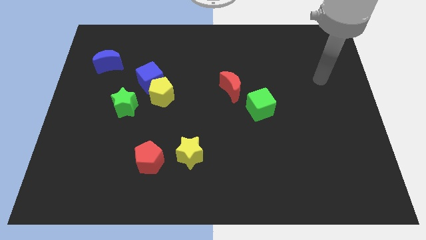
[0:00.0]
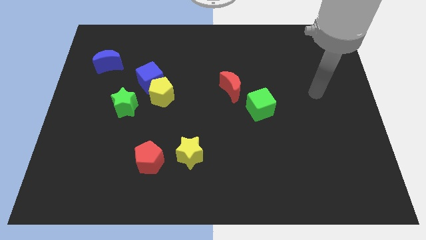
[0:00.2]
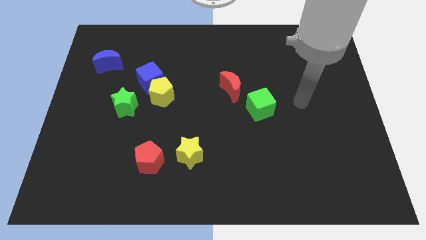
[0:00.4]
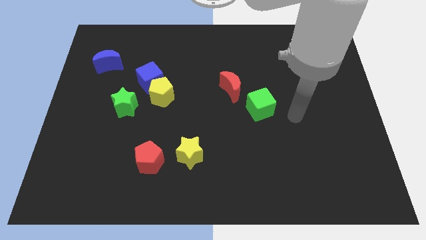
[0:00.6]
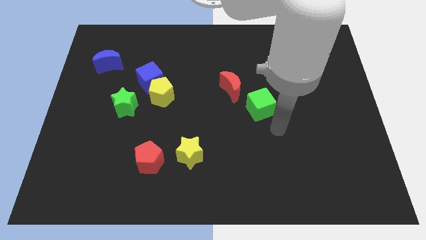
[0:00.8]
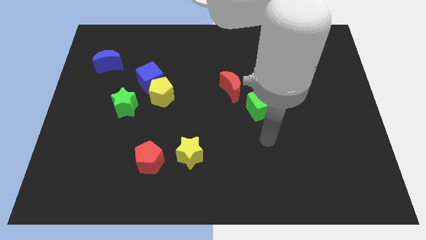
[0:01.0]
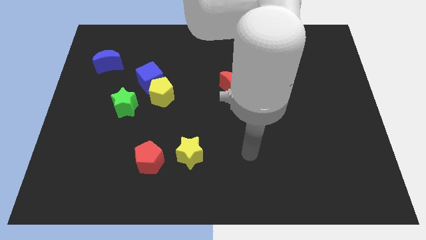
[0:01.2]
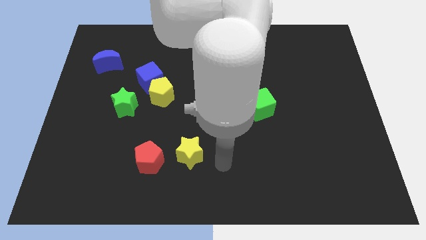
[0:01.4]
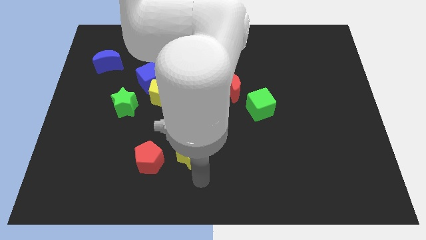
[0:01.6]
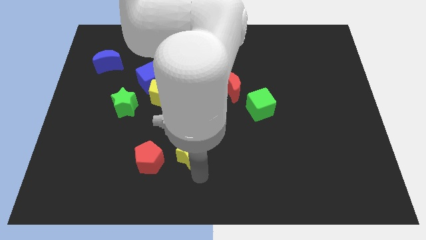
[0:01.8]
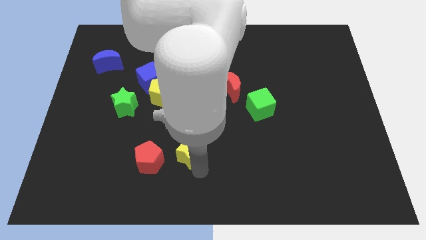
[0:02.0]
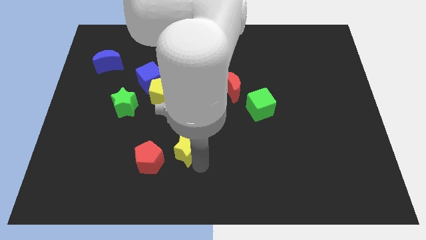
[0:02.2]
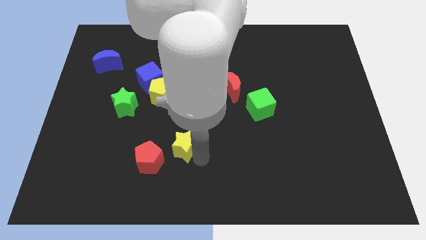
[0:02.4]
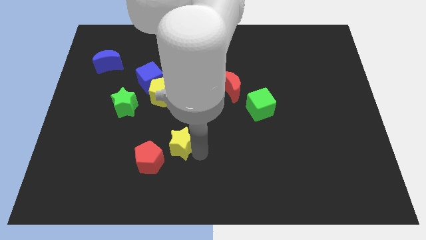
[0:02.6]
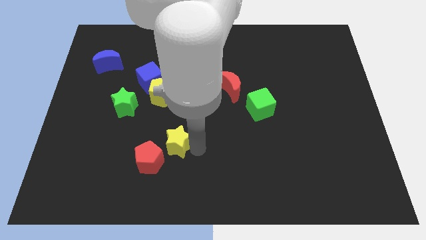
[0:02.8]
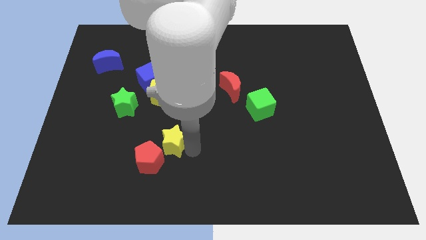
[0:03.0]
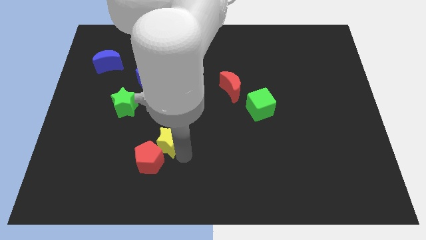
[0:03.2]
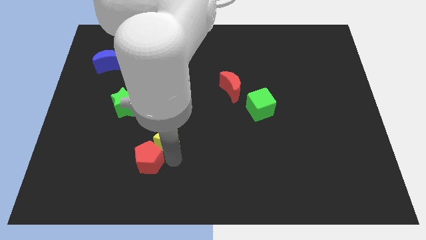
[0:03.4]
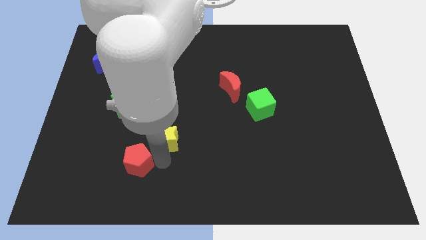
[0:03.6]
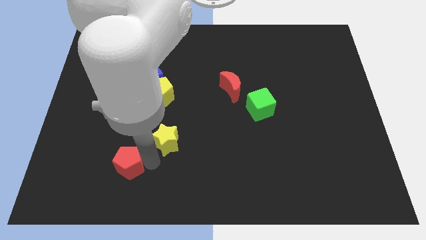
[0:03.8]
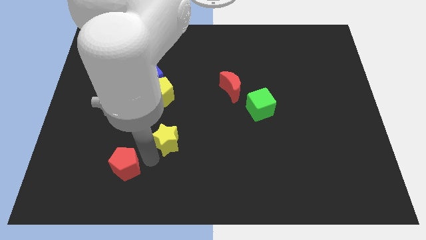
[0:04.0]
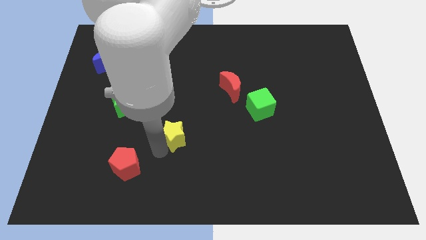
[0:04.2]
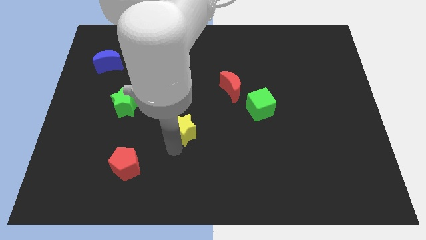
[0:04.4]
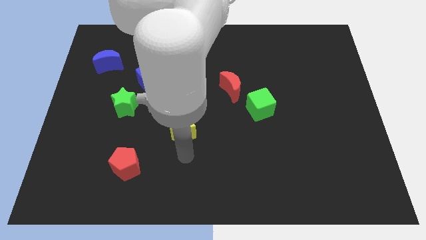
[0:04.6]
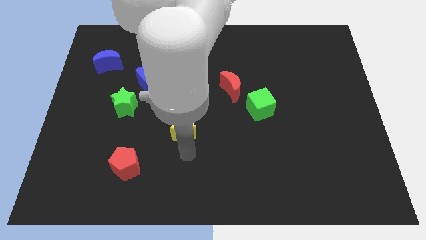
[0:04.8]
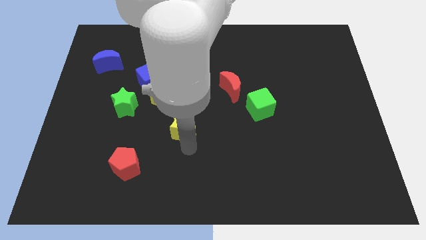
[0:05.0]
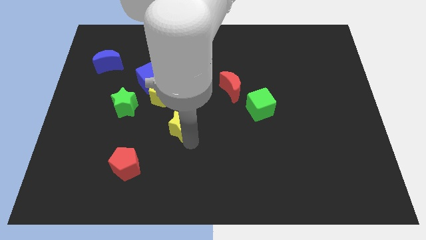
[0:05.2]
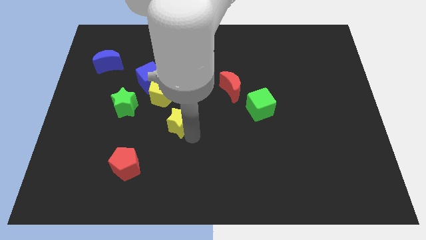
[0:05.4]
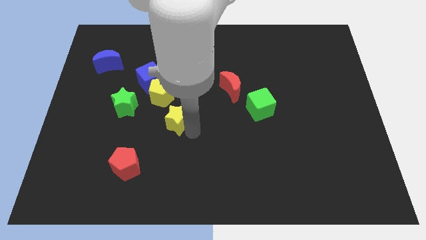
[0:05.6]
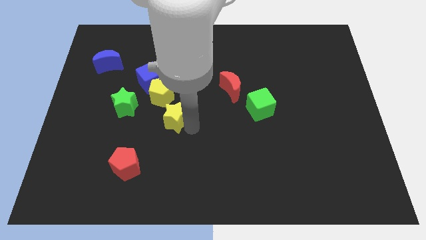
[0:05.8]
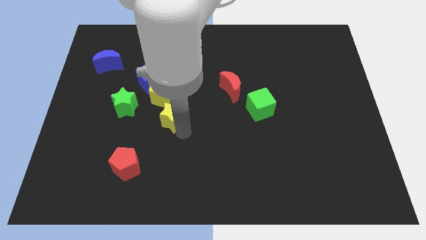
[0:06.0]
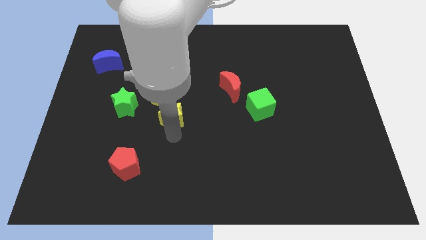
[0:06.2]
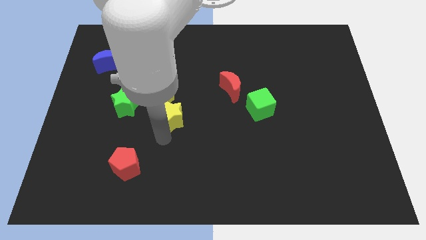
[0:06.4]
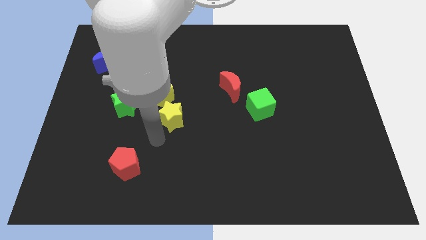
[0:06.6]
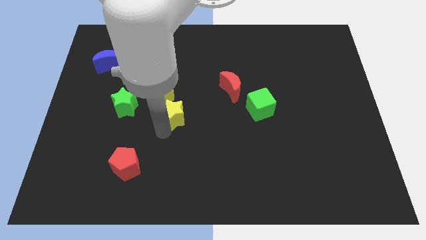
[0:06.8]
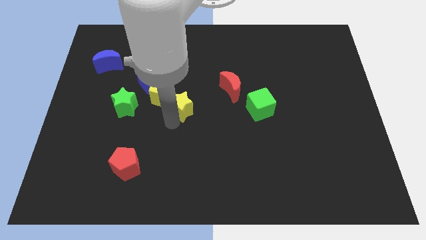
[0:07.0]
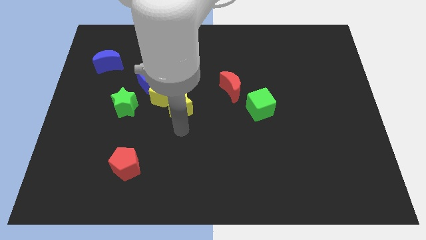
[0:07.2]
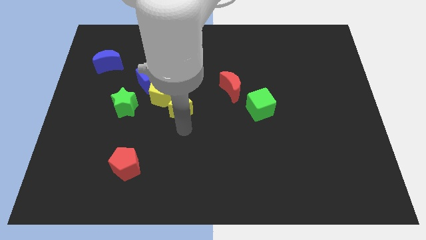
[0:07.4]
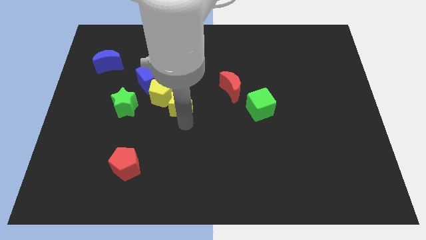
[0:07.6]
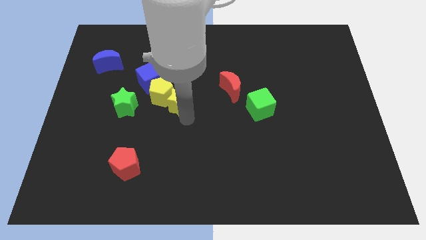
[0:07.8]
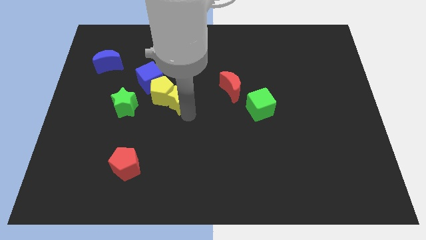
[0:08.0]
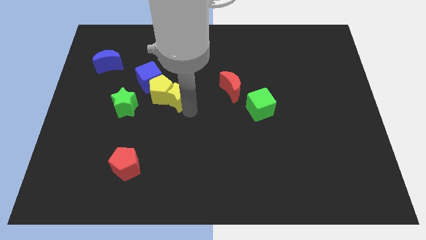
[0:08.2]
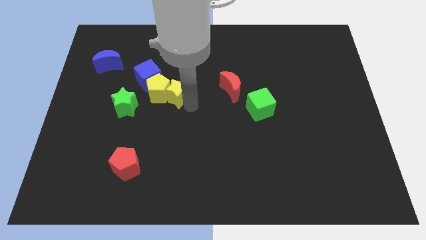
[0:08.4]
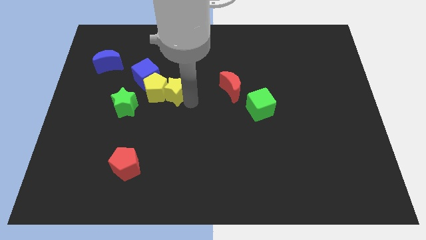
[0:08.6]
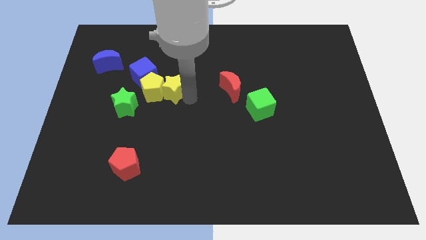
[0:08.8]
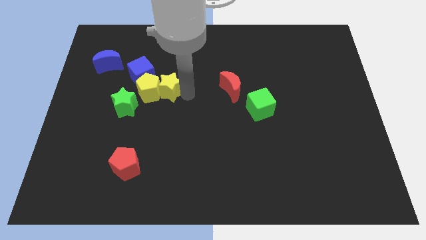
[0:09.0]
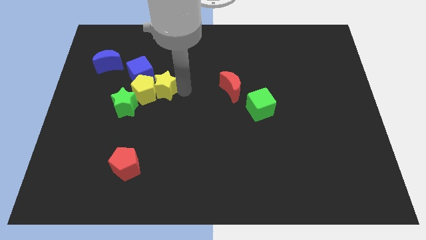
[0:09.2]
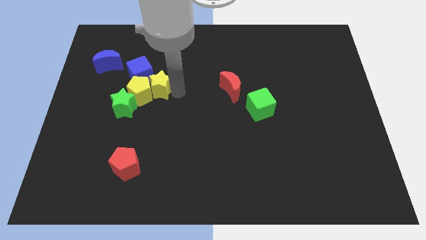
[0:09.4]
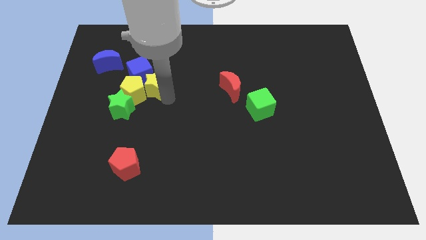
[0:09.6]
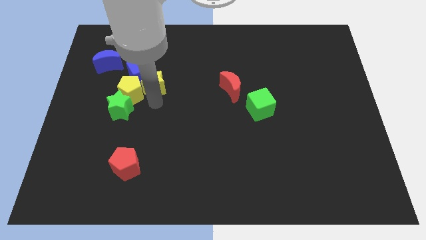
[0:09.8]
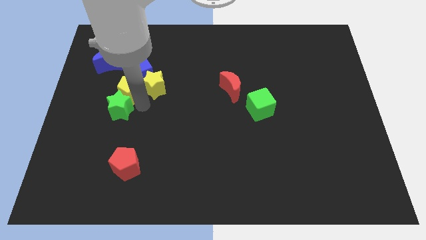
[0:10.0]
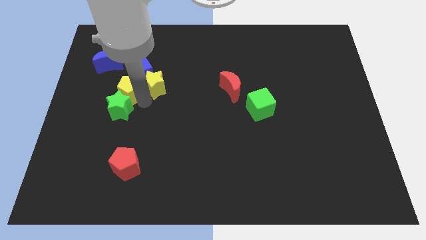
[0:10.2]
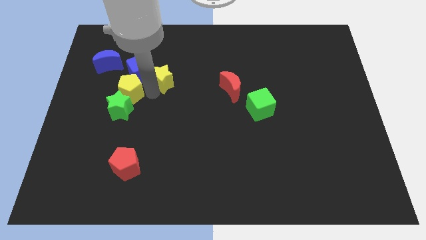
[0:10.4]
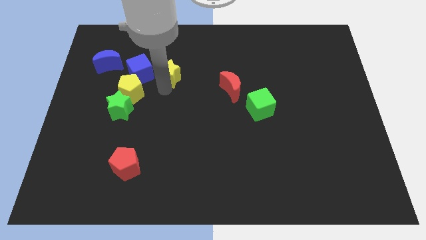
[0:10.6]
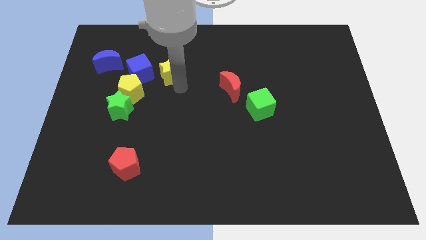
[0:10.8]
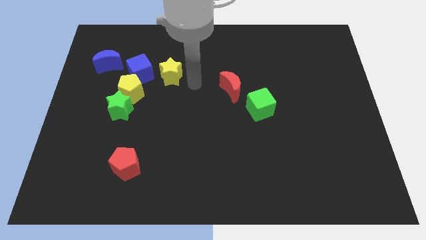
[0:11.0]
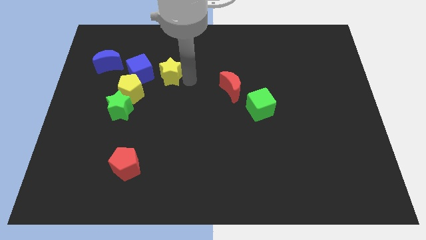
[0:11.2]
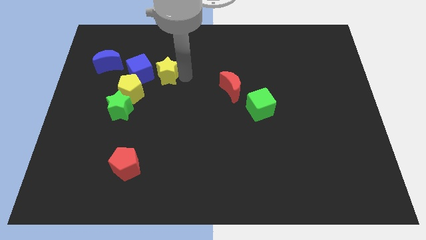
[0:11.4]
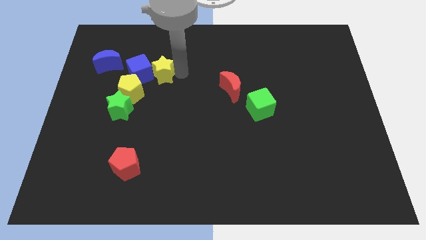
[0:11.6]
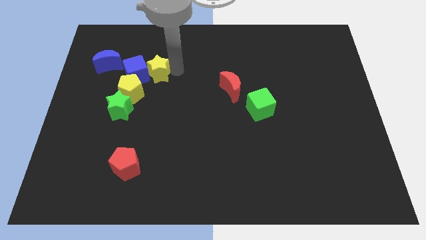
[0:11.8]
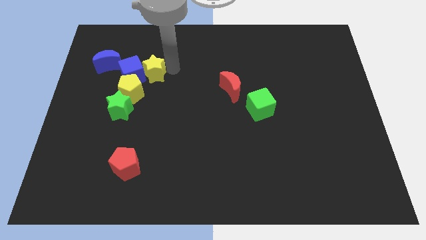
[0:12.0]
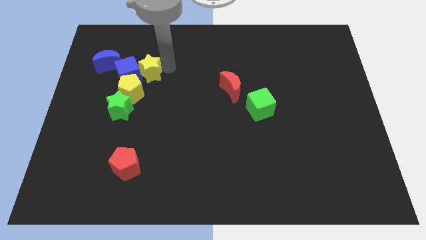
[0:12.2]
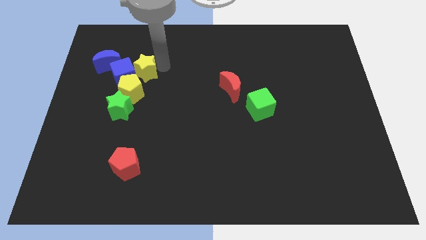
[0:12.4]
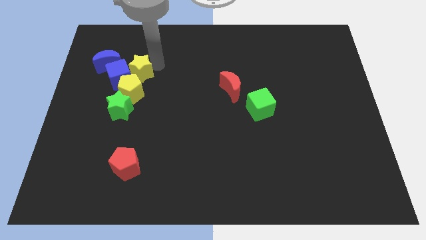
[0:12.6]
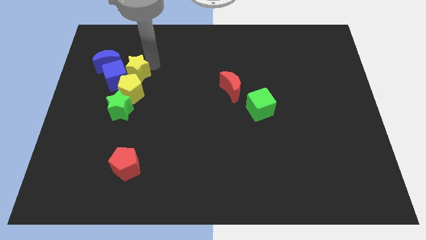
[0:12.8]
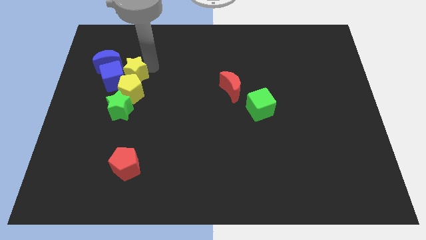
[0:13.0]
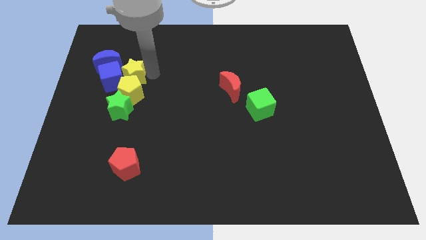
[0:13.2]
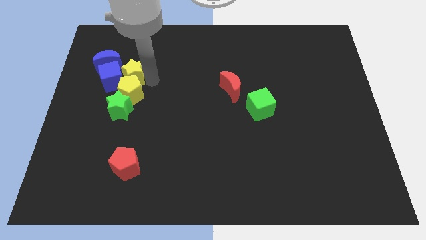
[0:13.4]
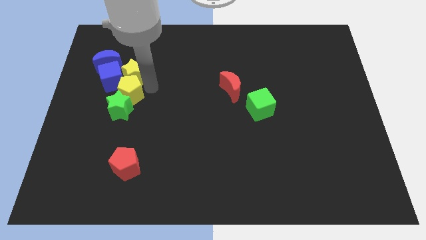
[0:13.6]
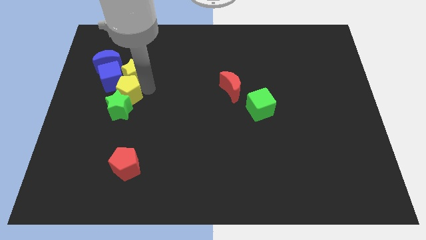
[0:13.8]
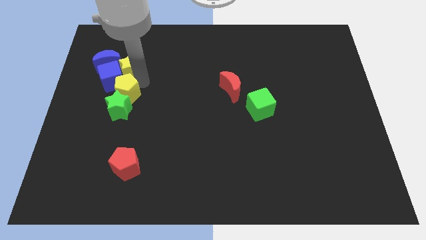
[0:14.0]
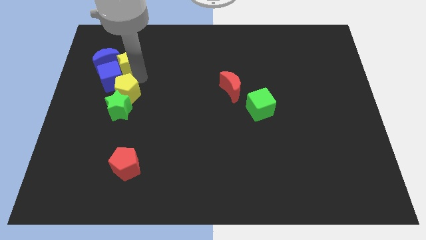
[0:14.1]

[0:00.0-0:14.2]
push the yellow star next to the blue moon
